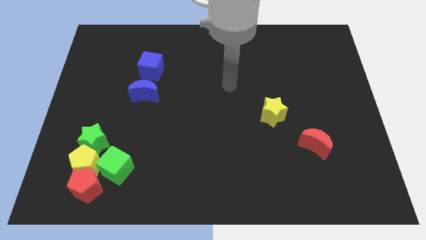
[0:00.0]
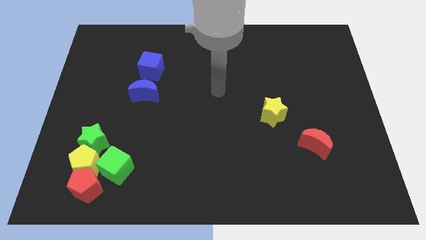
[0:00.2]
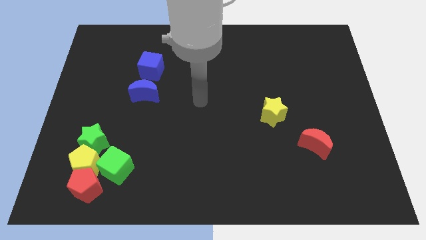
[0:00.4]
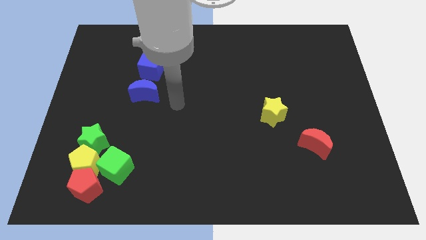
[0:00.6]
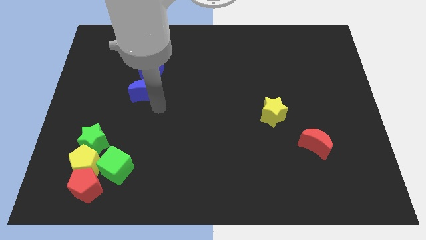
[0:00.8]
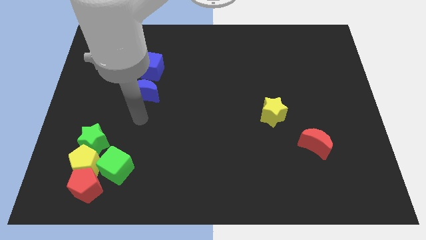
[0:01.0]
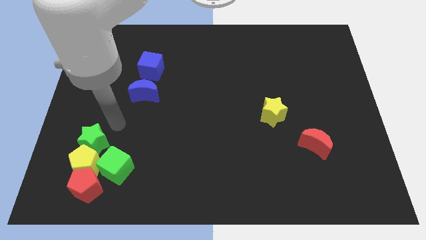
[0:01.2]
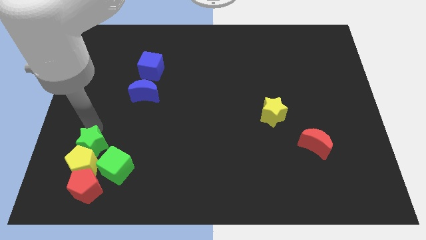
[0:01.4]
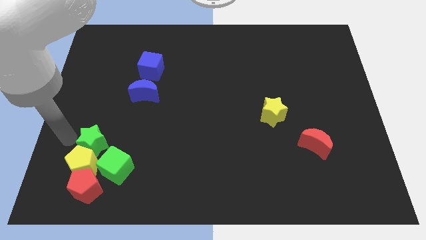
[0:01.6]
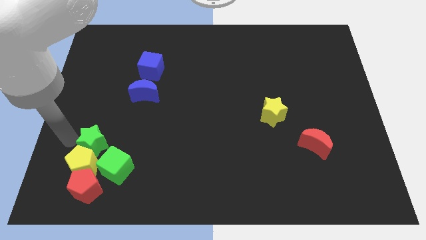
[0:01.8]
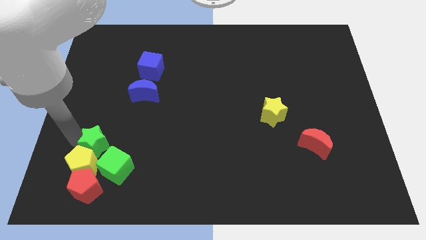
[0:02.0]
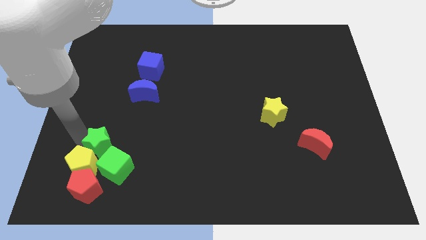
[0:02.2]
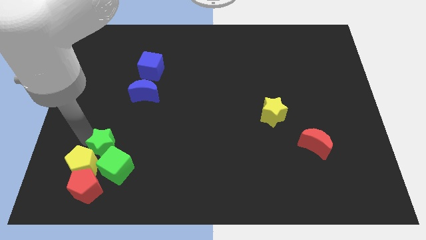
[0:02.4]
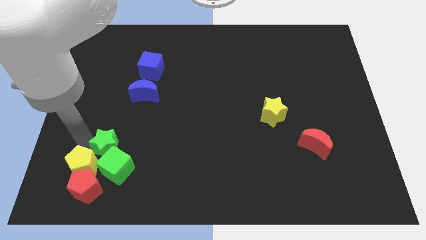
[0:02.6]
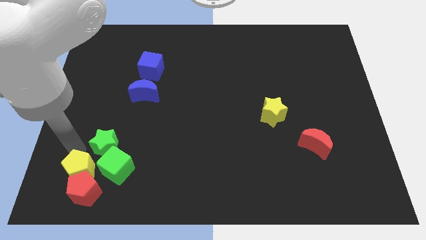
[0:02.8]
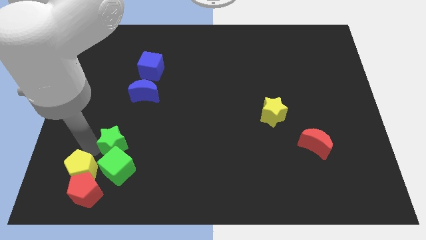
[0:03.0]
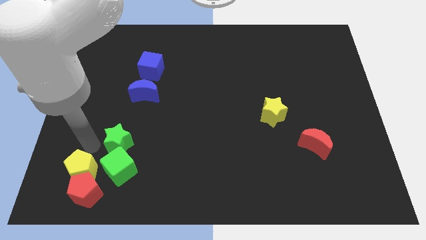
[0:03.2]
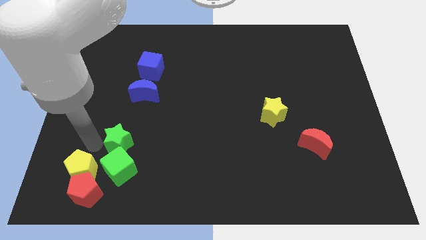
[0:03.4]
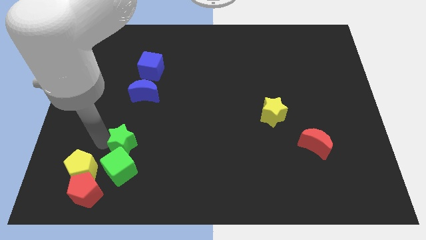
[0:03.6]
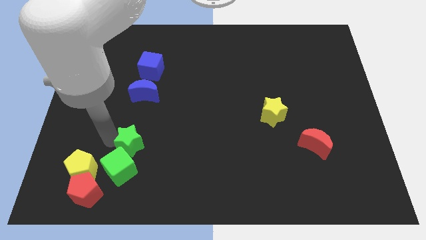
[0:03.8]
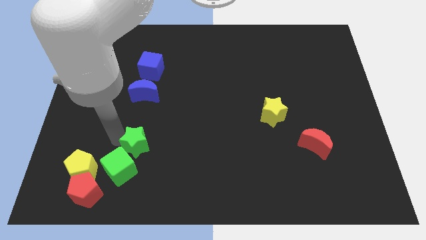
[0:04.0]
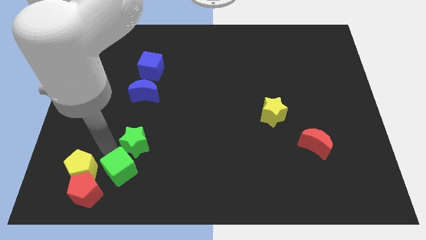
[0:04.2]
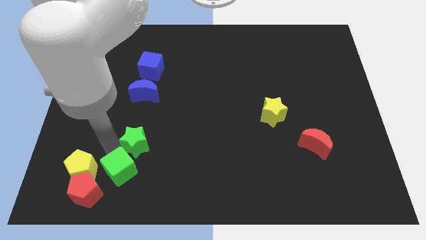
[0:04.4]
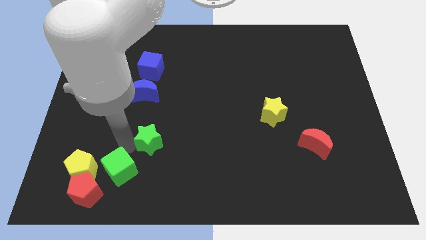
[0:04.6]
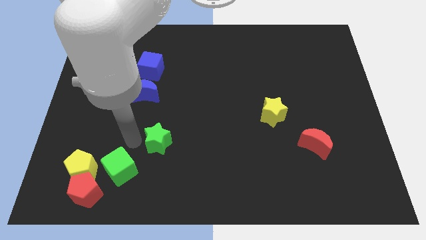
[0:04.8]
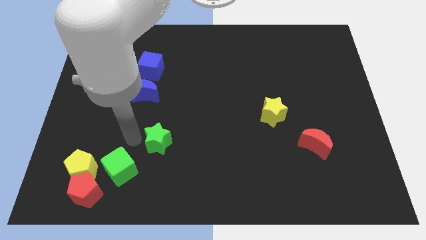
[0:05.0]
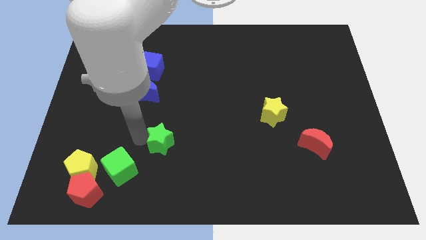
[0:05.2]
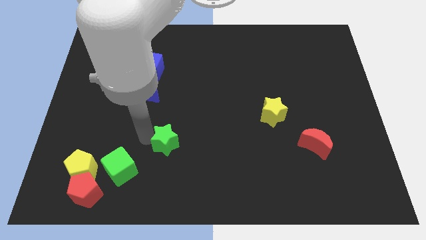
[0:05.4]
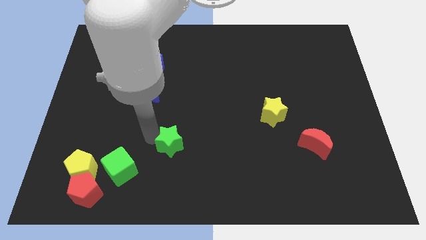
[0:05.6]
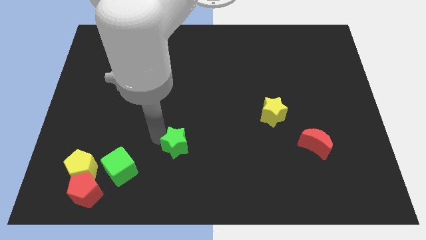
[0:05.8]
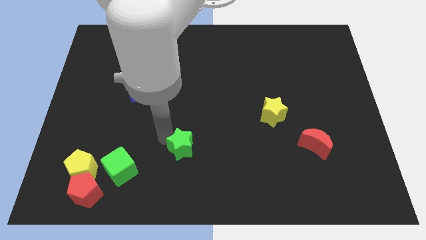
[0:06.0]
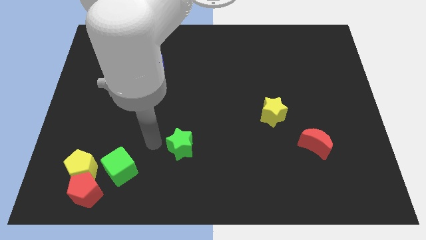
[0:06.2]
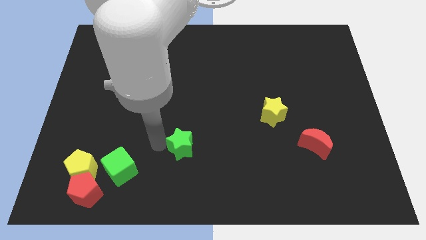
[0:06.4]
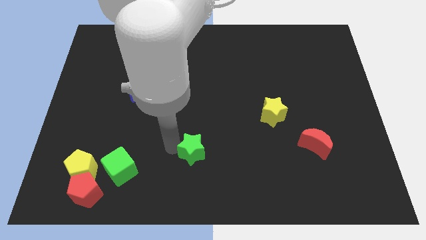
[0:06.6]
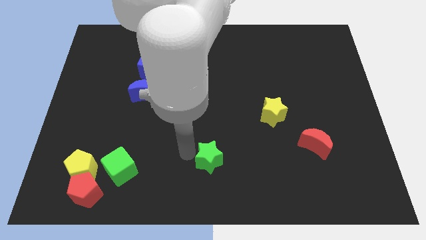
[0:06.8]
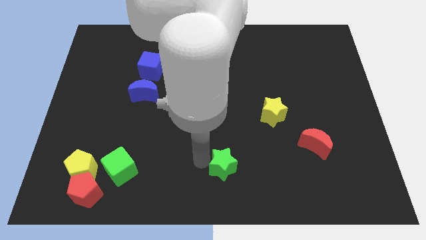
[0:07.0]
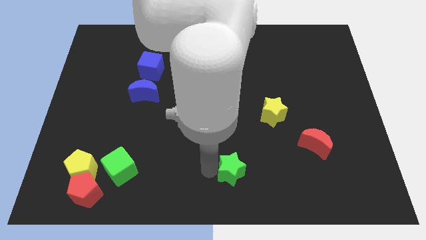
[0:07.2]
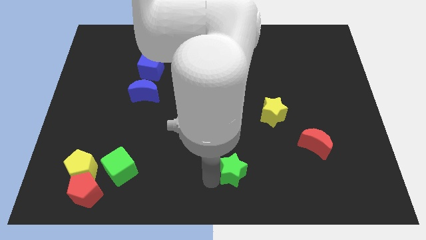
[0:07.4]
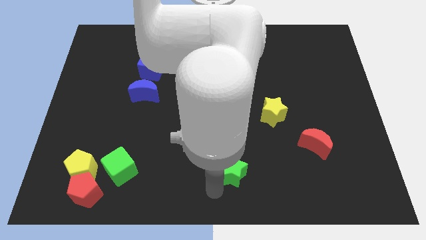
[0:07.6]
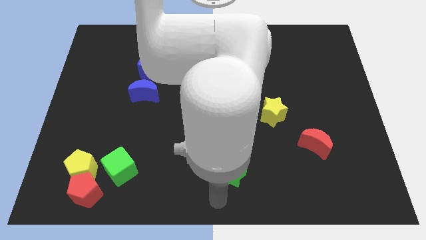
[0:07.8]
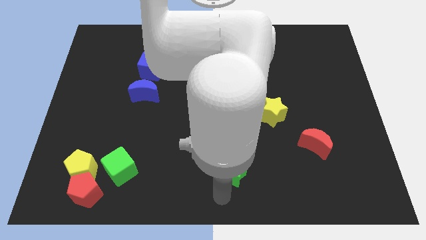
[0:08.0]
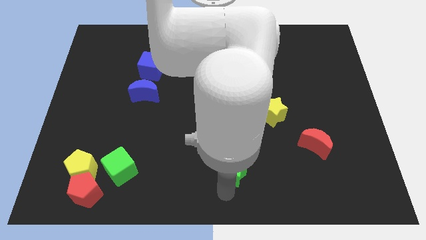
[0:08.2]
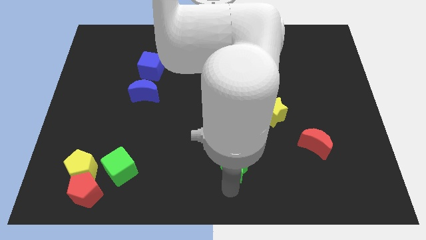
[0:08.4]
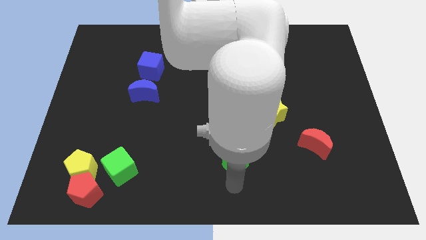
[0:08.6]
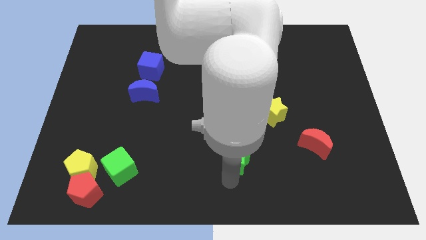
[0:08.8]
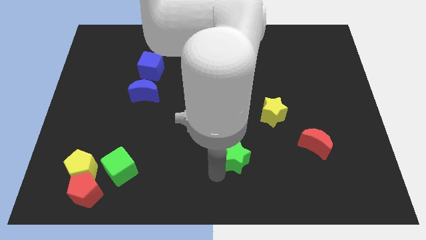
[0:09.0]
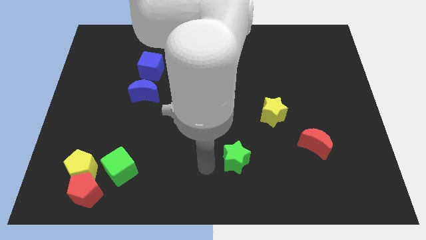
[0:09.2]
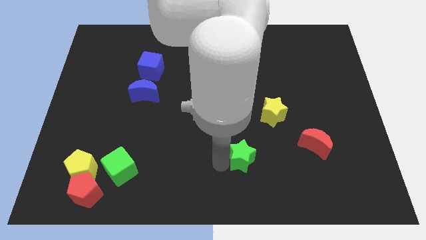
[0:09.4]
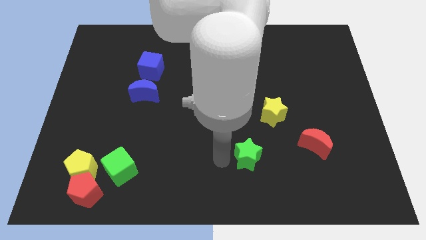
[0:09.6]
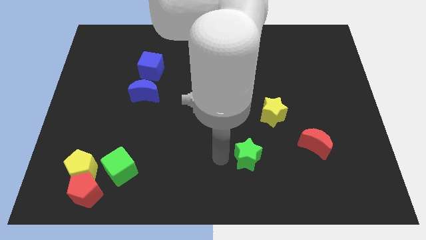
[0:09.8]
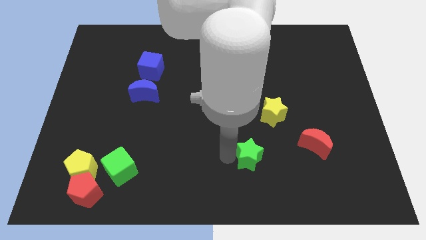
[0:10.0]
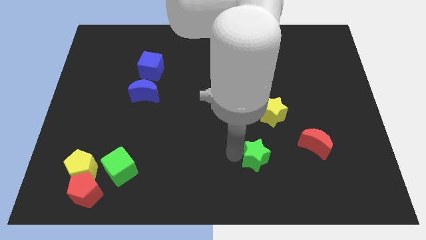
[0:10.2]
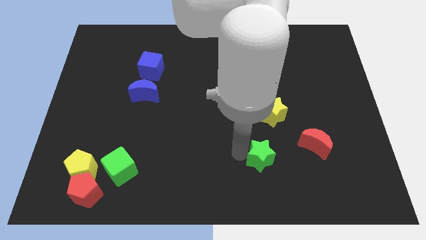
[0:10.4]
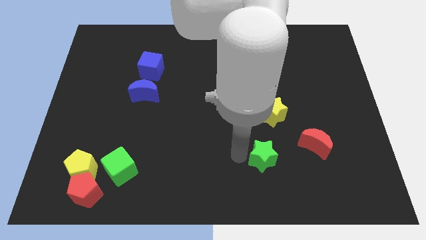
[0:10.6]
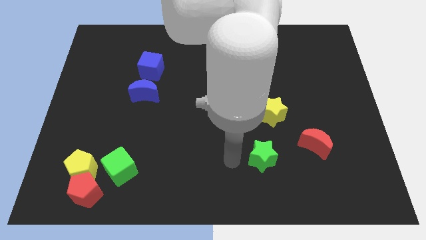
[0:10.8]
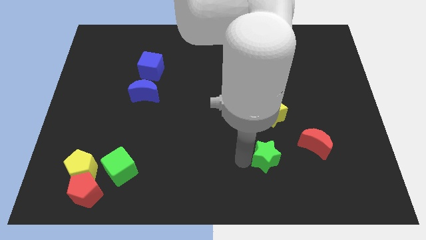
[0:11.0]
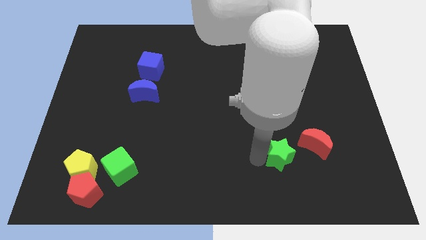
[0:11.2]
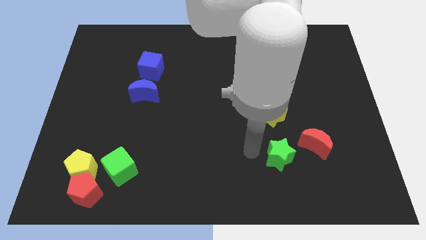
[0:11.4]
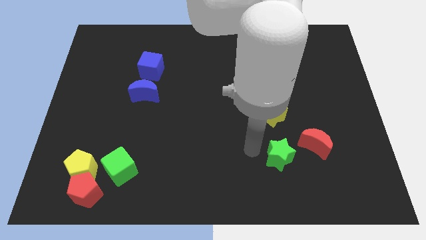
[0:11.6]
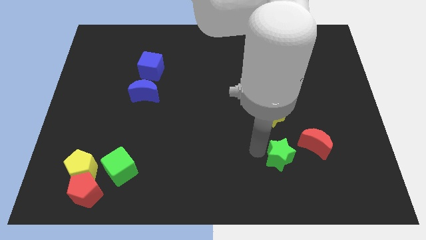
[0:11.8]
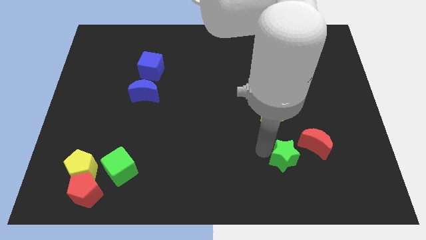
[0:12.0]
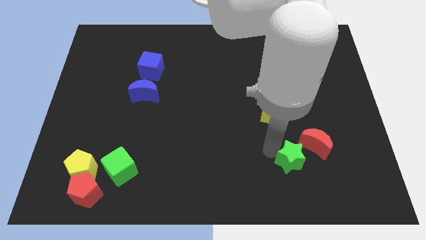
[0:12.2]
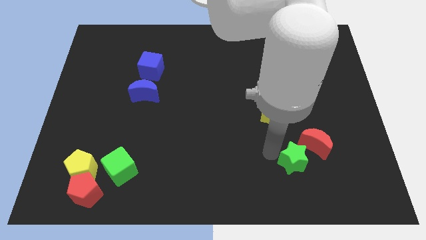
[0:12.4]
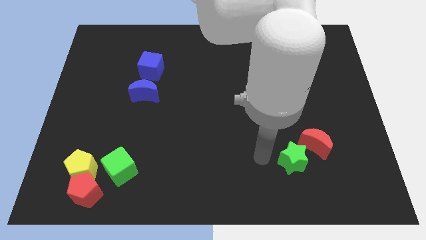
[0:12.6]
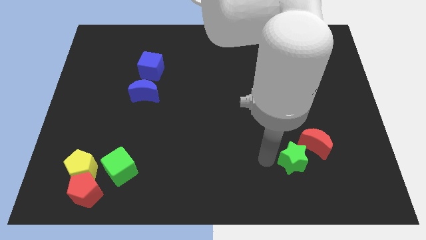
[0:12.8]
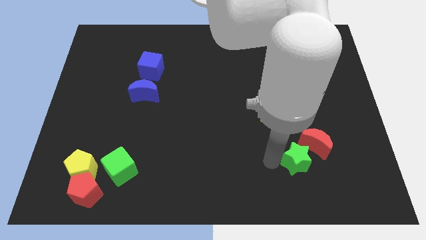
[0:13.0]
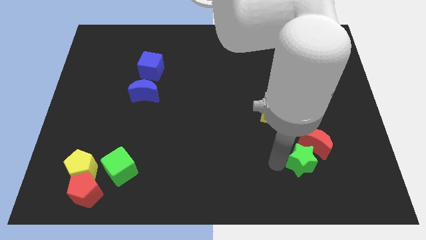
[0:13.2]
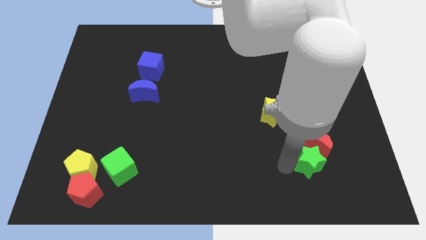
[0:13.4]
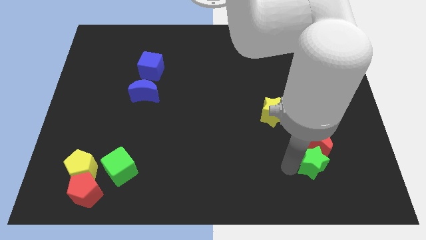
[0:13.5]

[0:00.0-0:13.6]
slide the green star to the bottom right side of the red moon

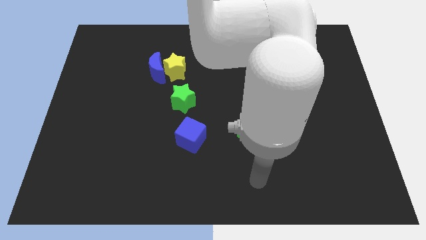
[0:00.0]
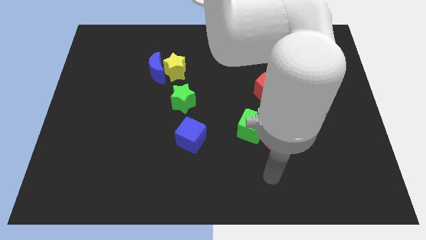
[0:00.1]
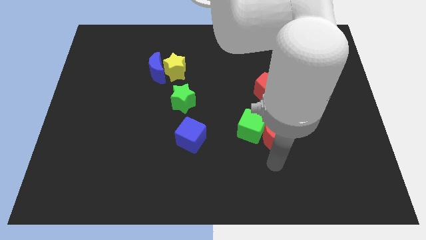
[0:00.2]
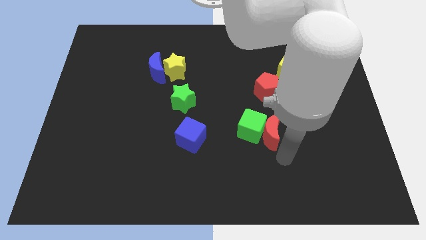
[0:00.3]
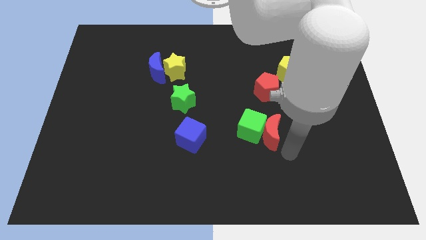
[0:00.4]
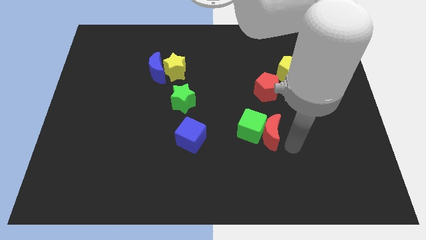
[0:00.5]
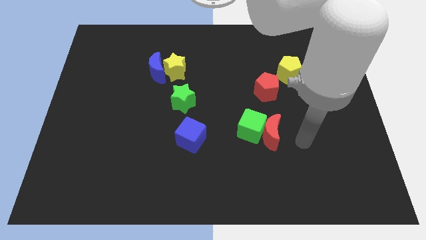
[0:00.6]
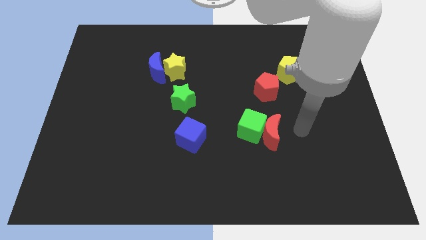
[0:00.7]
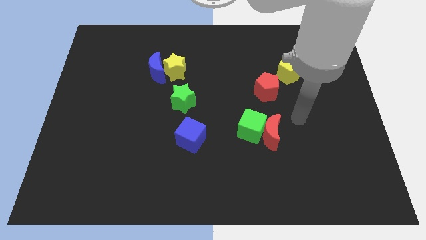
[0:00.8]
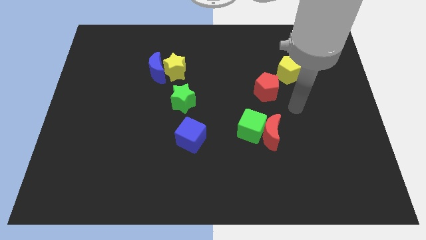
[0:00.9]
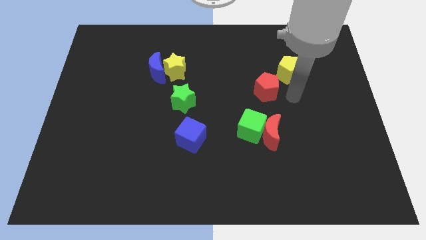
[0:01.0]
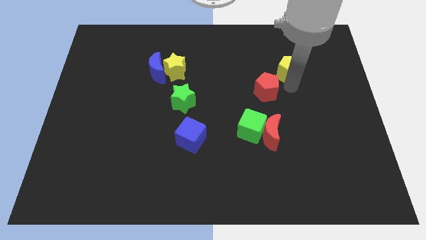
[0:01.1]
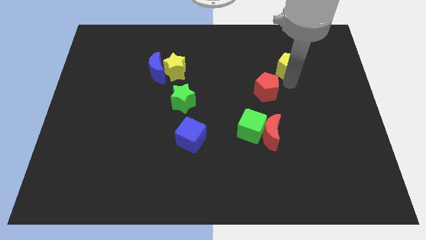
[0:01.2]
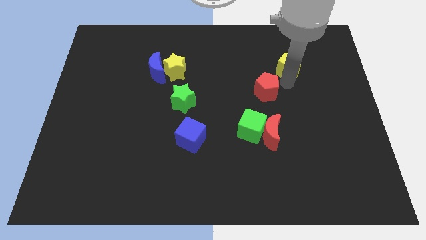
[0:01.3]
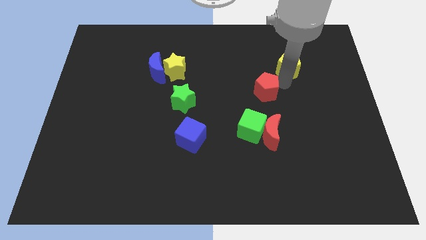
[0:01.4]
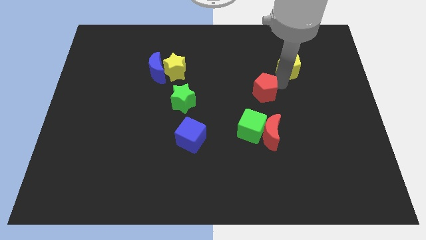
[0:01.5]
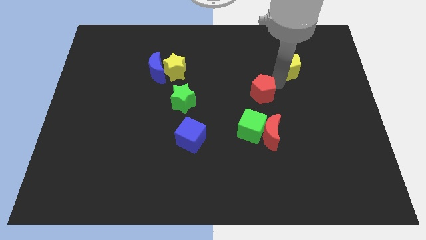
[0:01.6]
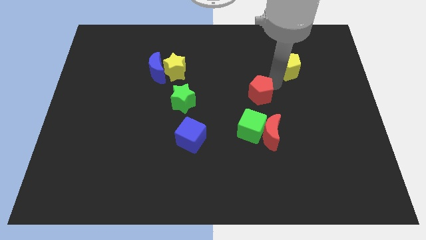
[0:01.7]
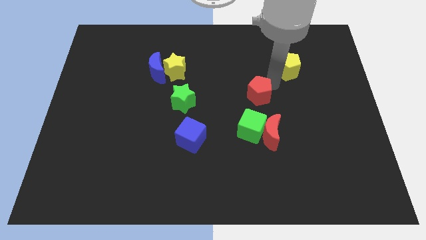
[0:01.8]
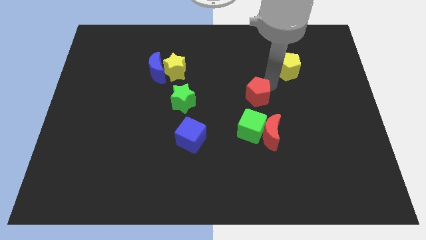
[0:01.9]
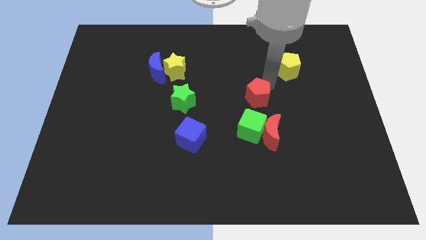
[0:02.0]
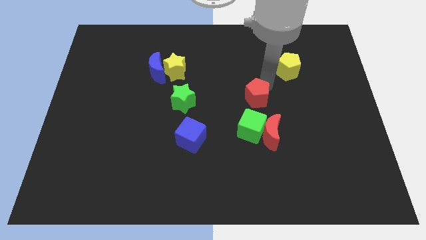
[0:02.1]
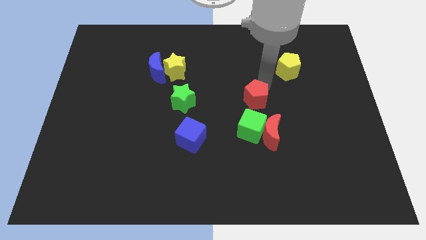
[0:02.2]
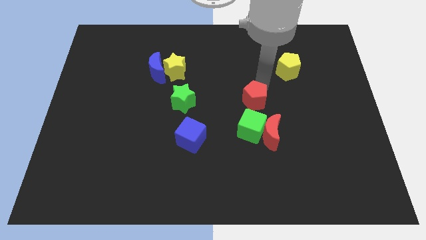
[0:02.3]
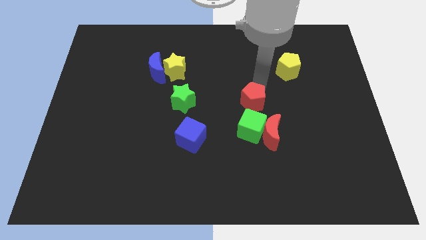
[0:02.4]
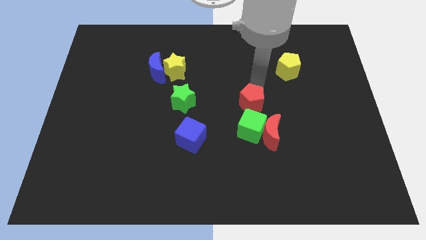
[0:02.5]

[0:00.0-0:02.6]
push the red pentagon to the right side of the green star
